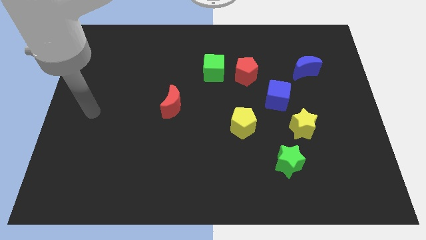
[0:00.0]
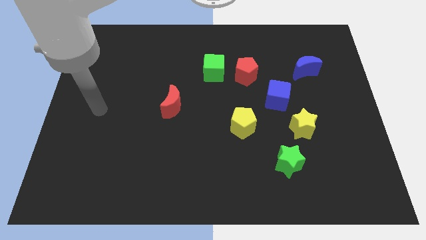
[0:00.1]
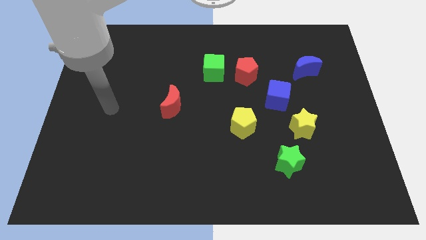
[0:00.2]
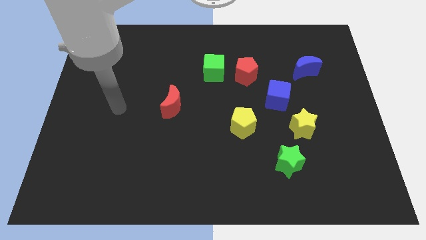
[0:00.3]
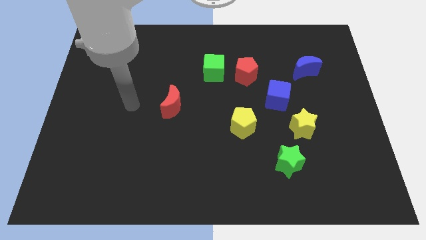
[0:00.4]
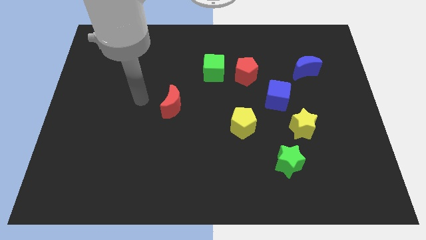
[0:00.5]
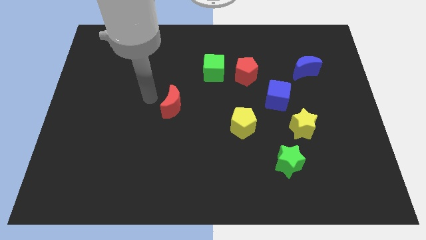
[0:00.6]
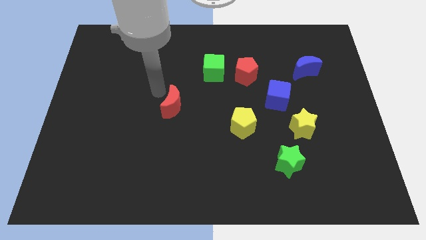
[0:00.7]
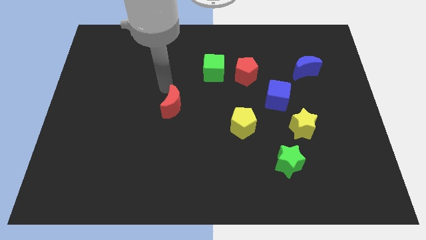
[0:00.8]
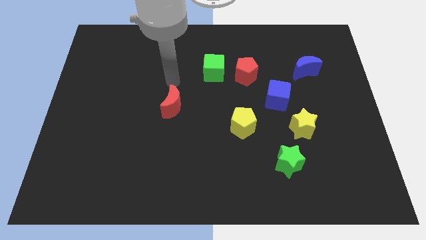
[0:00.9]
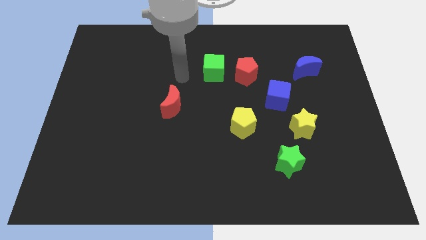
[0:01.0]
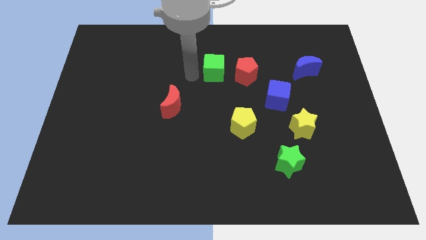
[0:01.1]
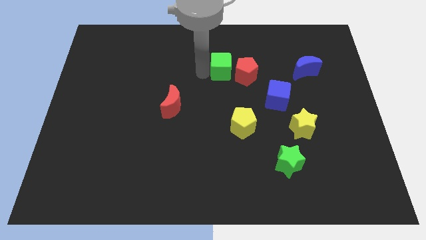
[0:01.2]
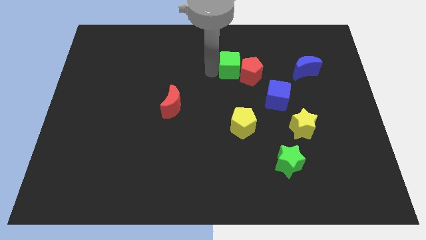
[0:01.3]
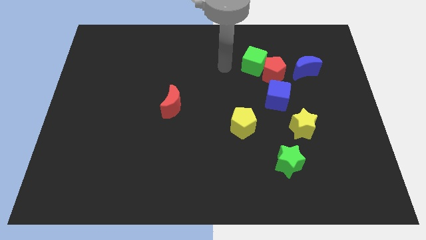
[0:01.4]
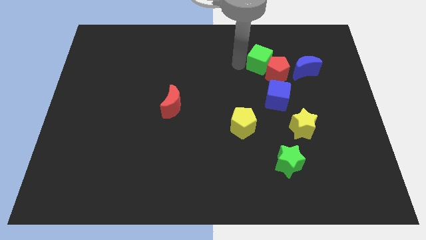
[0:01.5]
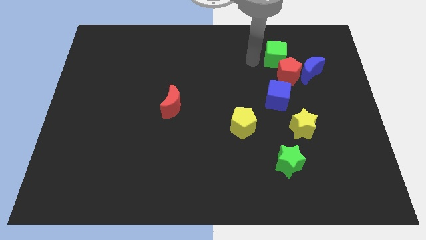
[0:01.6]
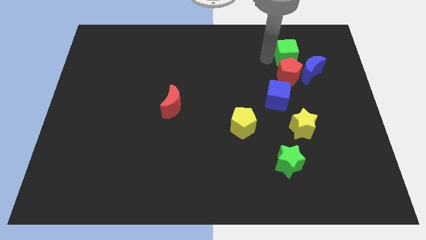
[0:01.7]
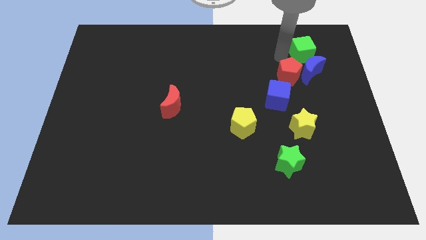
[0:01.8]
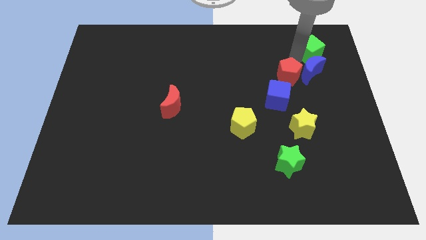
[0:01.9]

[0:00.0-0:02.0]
pull the red pentagon apart from the green cube

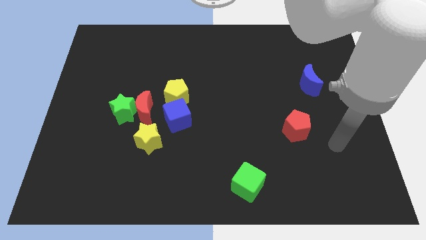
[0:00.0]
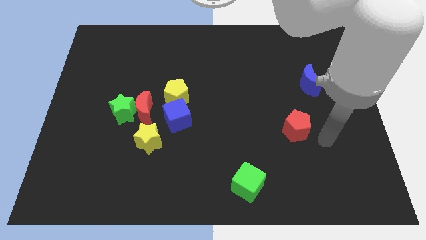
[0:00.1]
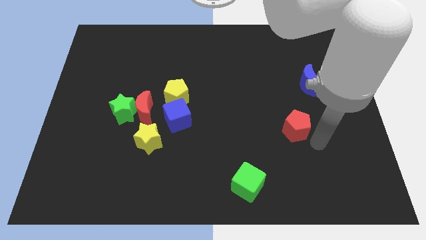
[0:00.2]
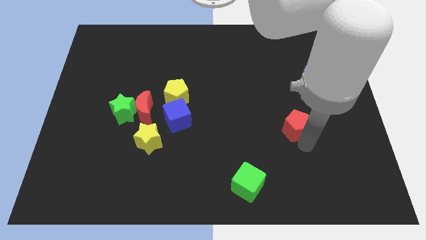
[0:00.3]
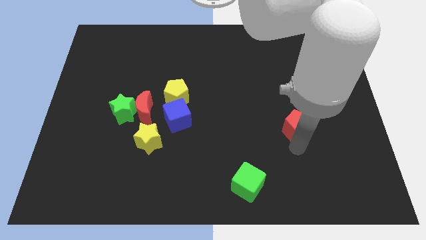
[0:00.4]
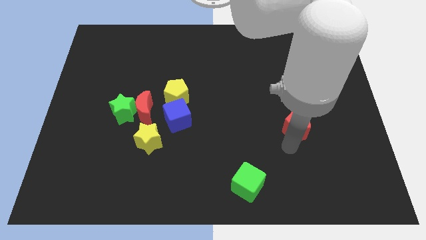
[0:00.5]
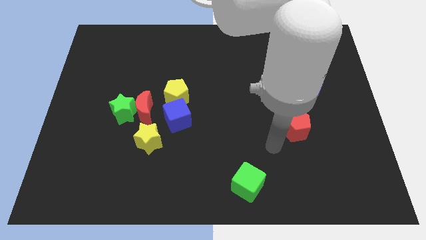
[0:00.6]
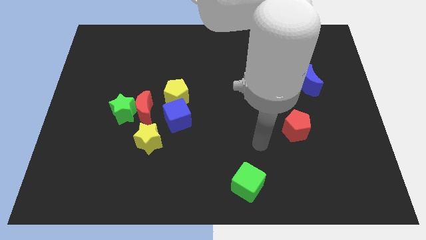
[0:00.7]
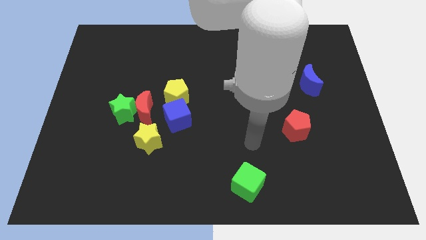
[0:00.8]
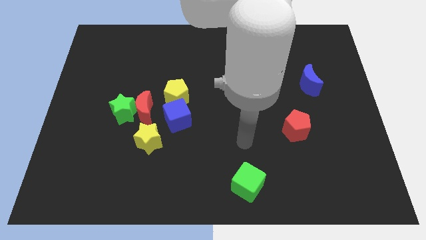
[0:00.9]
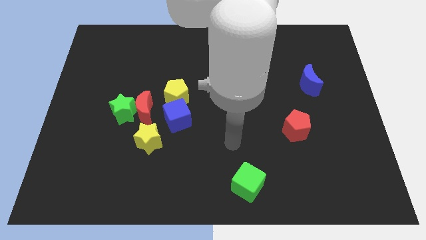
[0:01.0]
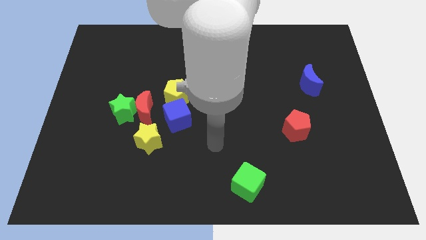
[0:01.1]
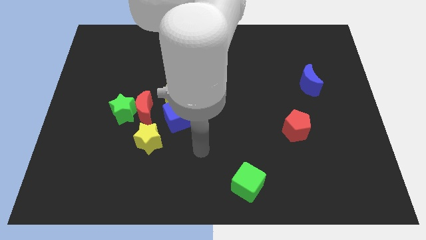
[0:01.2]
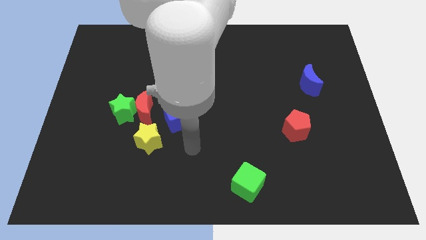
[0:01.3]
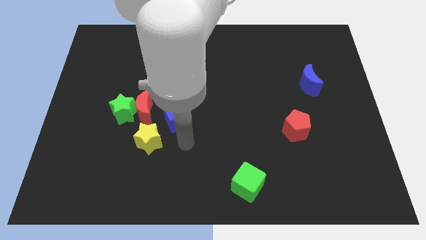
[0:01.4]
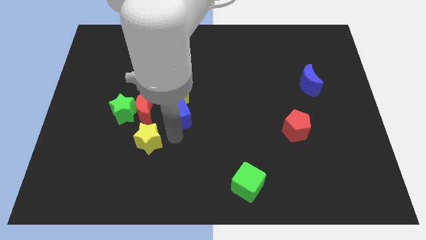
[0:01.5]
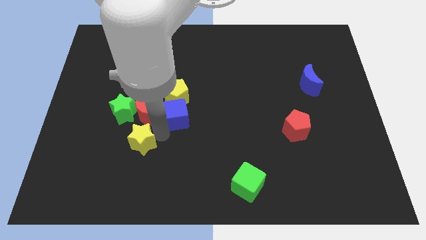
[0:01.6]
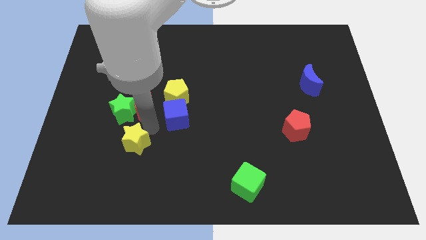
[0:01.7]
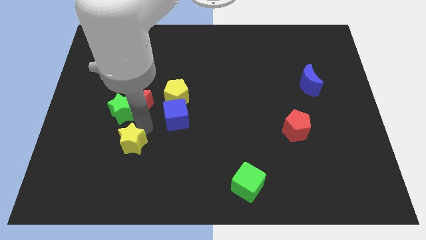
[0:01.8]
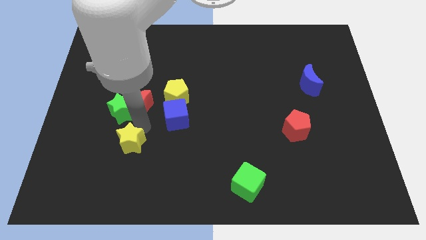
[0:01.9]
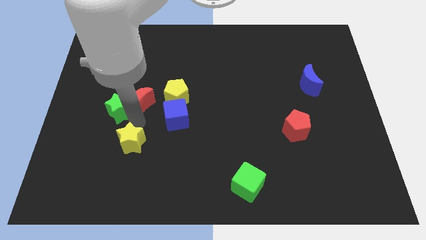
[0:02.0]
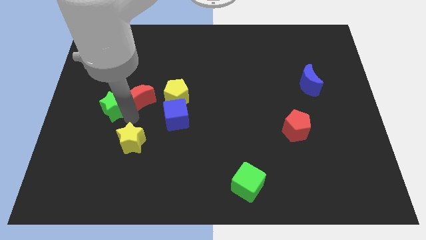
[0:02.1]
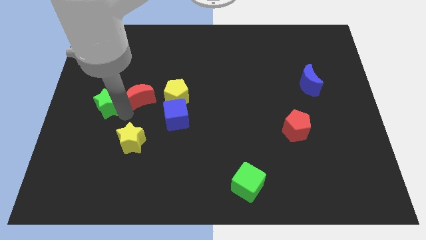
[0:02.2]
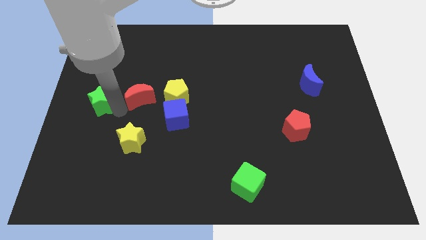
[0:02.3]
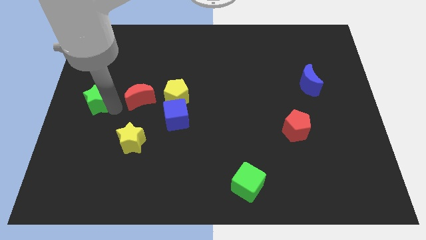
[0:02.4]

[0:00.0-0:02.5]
move the green star away from the red moon and yellow star

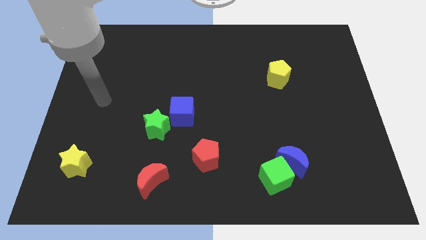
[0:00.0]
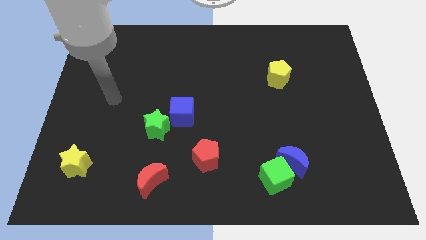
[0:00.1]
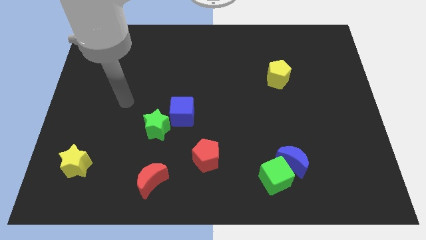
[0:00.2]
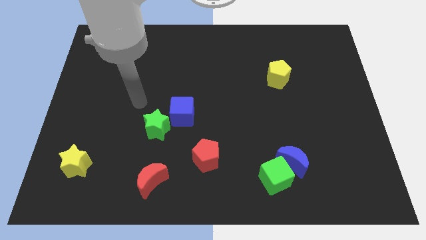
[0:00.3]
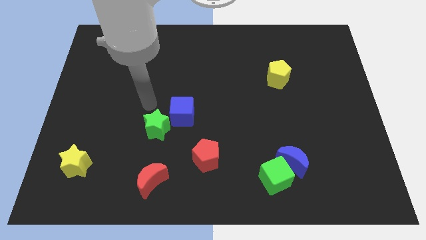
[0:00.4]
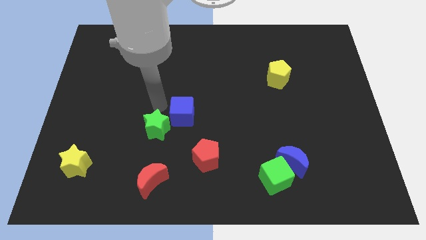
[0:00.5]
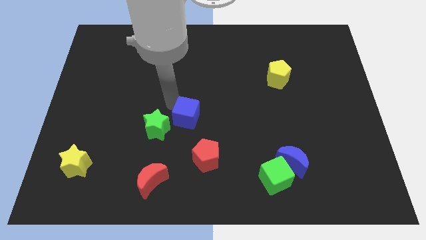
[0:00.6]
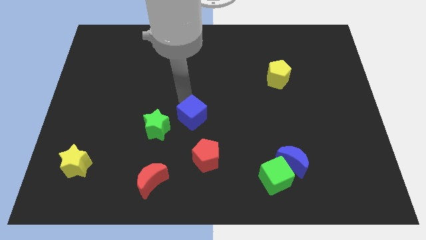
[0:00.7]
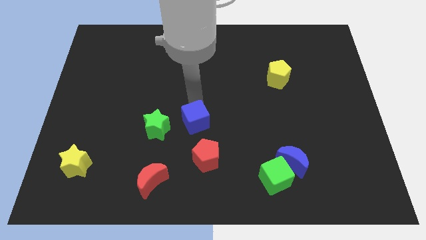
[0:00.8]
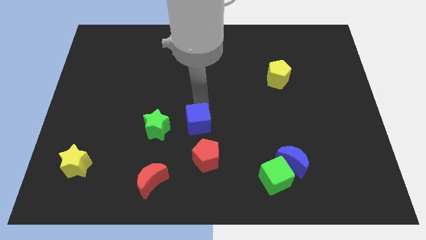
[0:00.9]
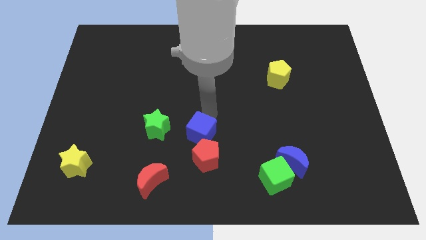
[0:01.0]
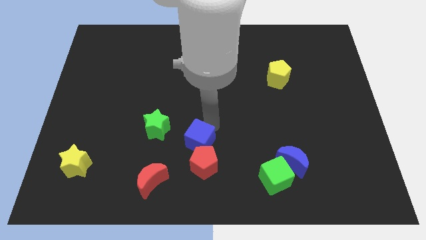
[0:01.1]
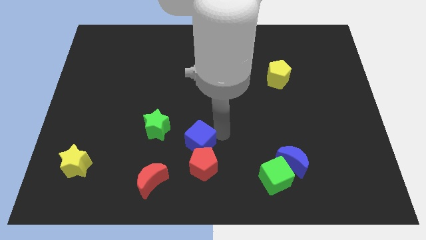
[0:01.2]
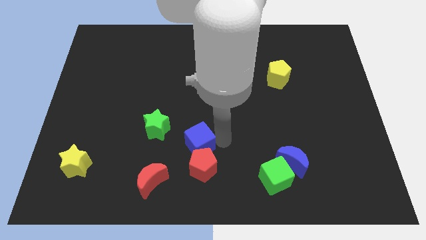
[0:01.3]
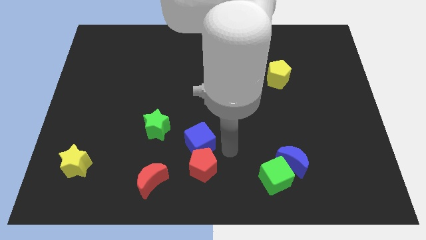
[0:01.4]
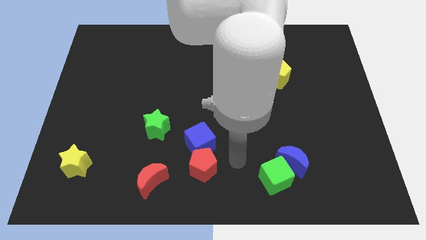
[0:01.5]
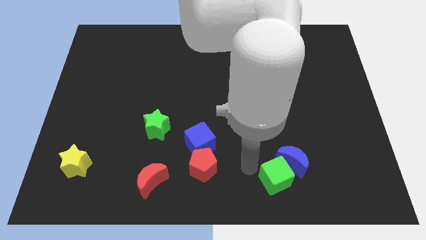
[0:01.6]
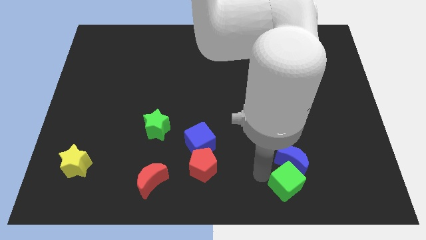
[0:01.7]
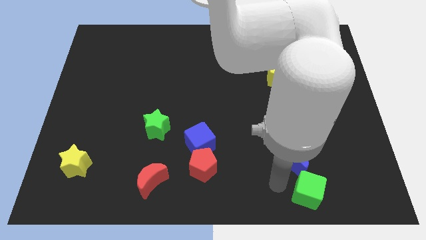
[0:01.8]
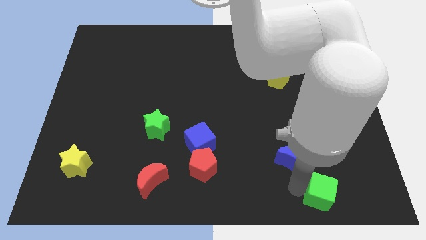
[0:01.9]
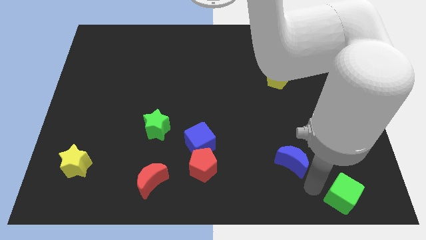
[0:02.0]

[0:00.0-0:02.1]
separate the blue moon from the green cube

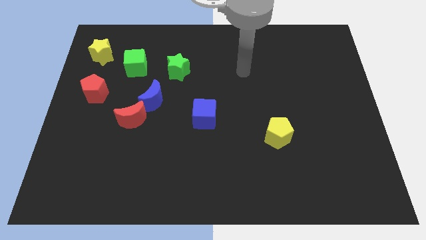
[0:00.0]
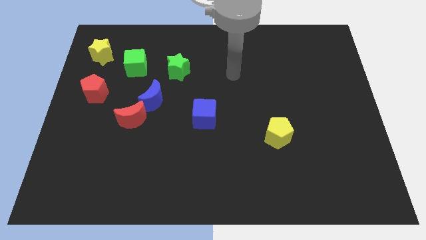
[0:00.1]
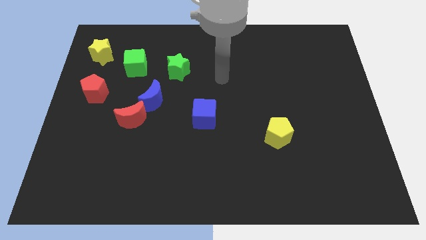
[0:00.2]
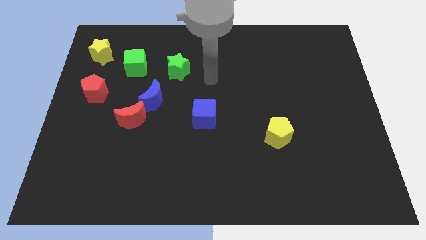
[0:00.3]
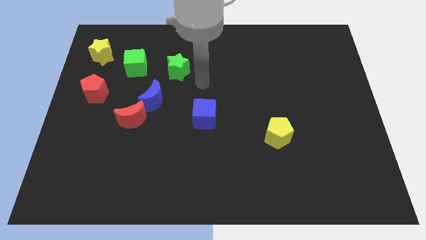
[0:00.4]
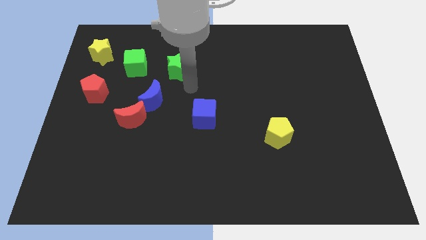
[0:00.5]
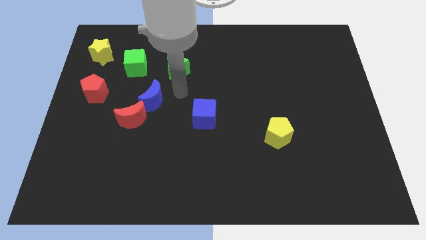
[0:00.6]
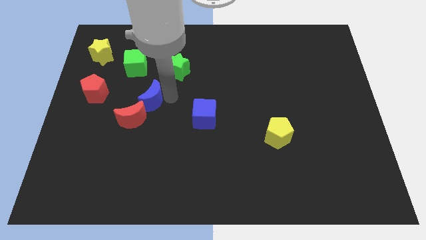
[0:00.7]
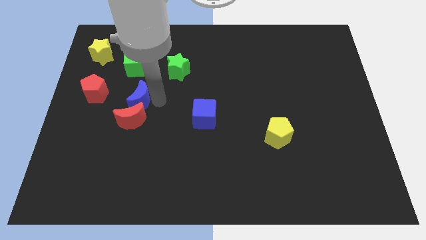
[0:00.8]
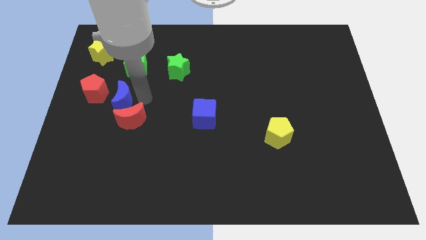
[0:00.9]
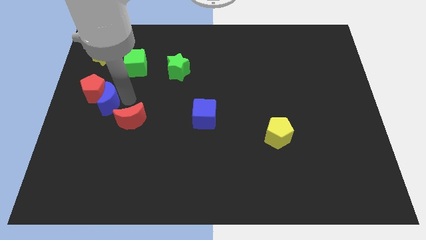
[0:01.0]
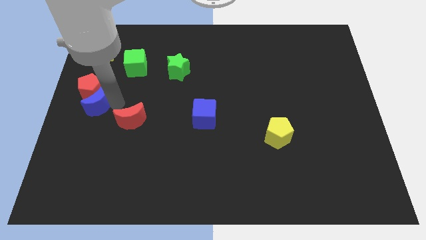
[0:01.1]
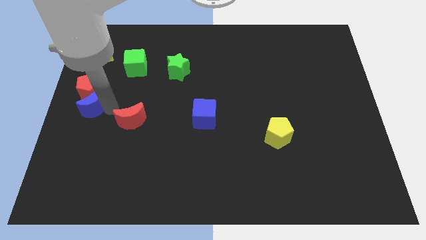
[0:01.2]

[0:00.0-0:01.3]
separate the red moon from the blue moon

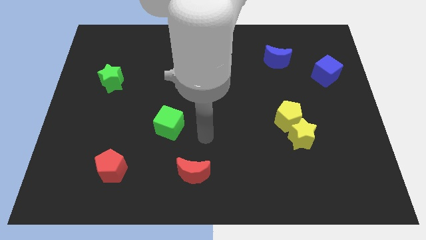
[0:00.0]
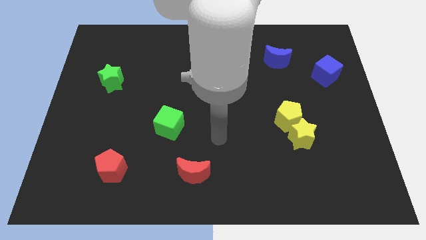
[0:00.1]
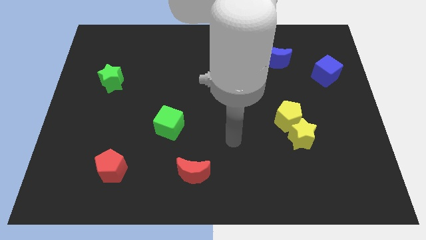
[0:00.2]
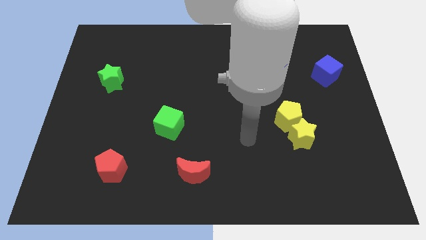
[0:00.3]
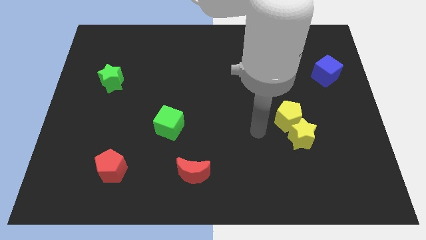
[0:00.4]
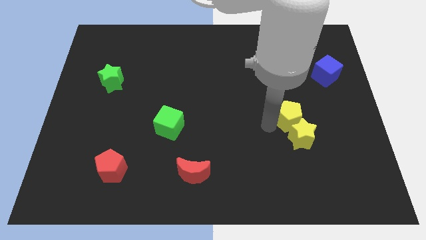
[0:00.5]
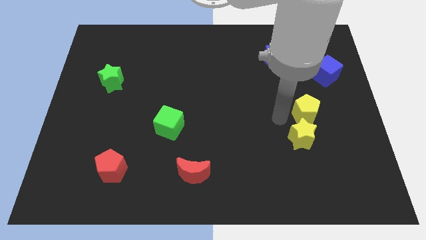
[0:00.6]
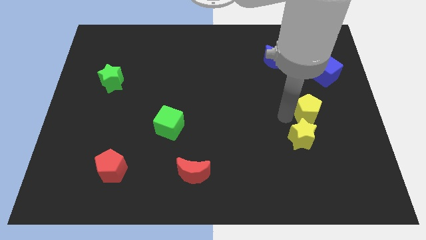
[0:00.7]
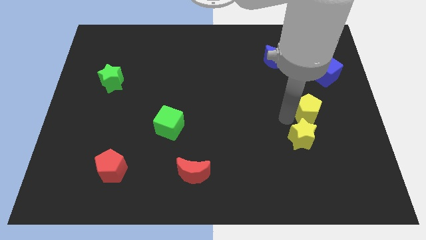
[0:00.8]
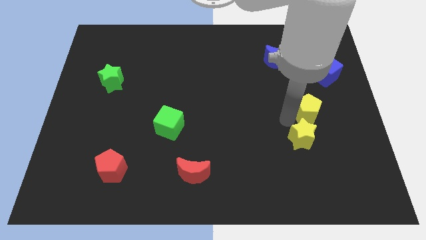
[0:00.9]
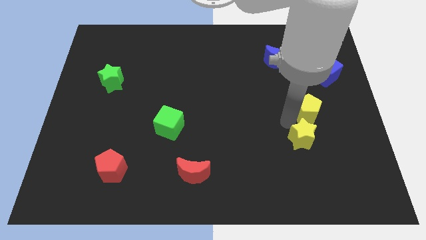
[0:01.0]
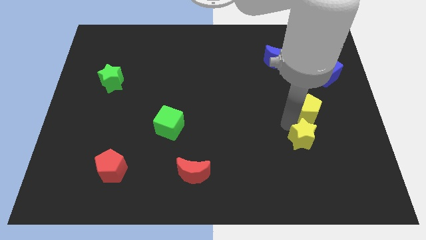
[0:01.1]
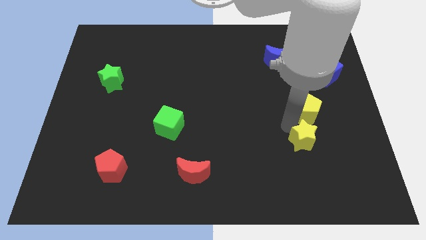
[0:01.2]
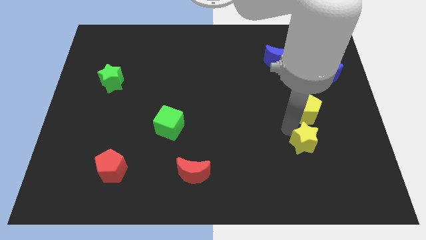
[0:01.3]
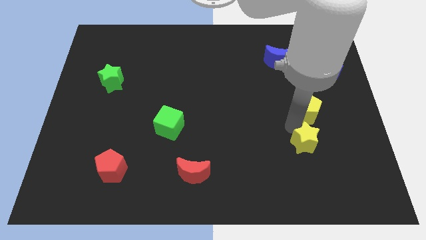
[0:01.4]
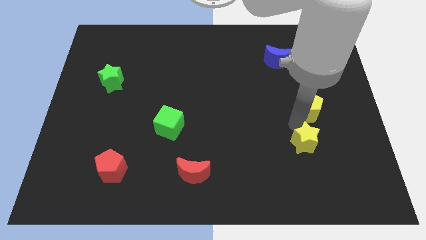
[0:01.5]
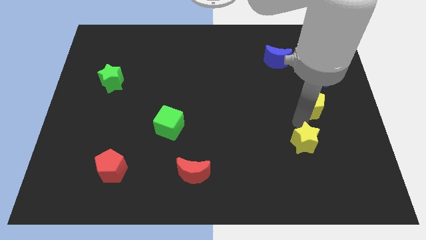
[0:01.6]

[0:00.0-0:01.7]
pull the yellow star apart from the yellow pentagon
